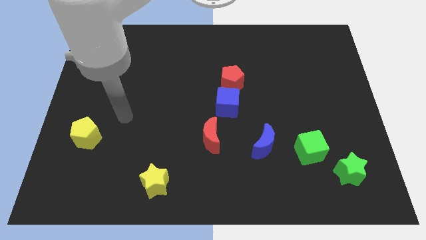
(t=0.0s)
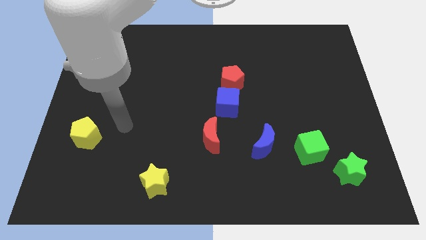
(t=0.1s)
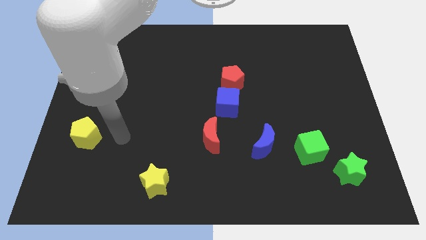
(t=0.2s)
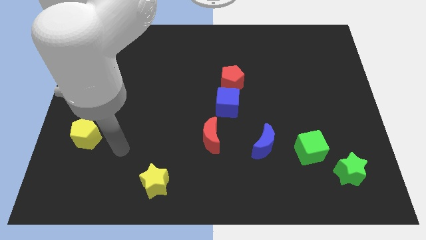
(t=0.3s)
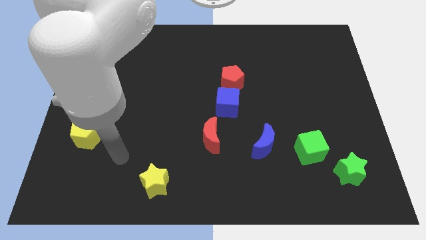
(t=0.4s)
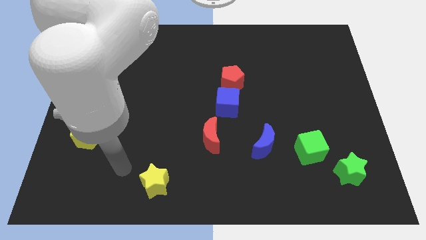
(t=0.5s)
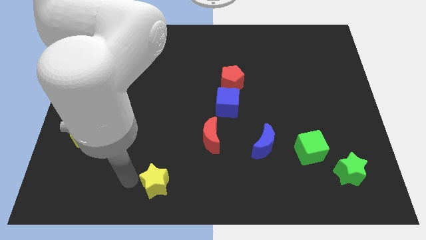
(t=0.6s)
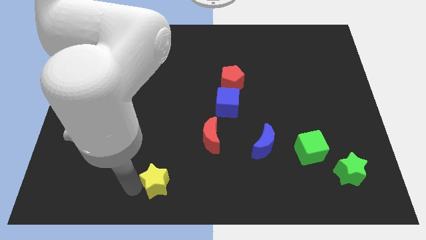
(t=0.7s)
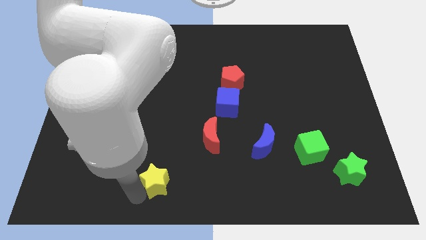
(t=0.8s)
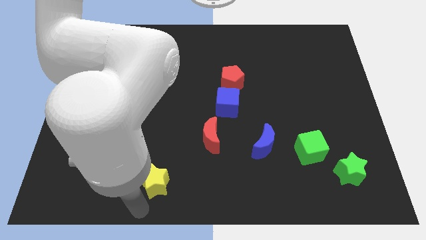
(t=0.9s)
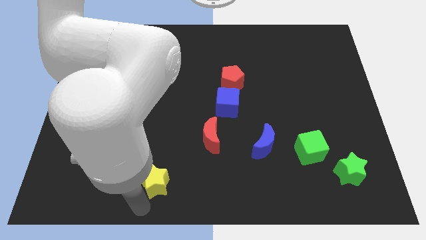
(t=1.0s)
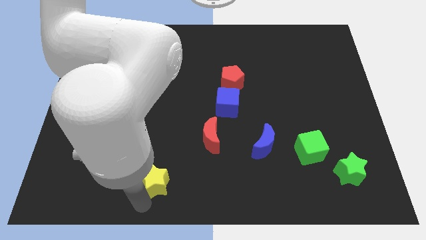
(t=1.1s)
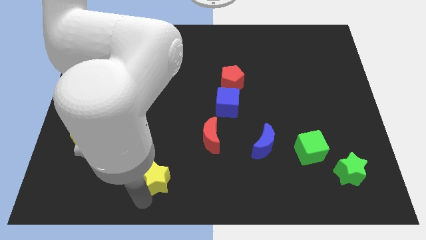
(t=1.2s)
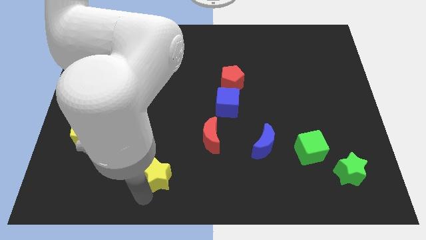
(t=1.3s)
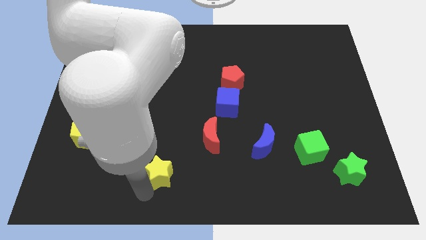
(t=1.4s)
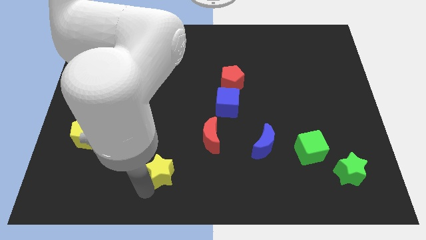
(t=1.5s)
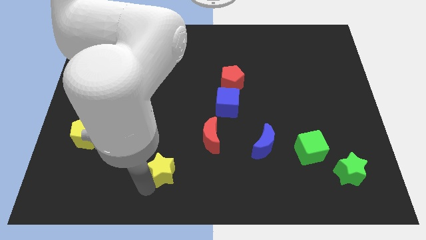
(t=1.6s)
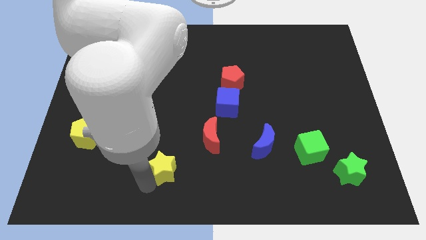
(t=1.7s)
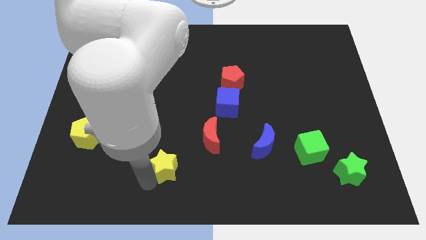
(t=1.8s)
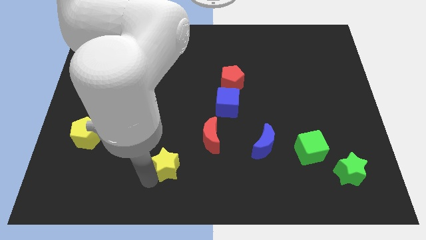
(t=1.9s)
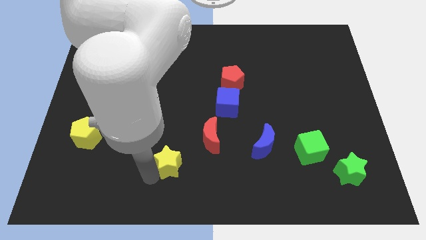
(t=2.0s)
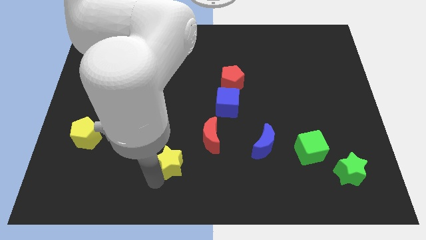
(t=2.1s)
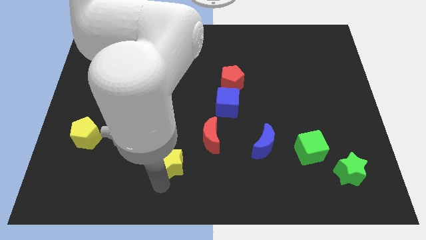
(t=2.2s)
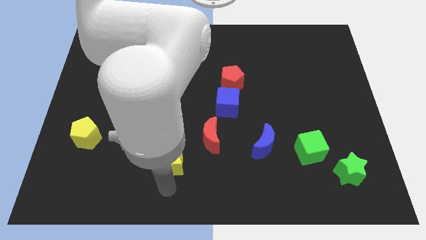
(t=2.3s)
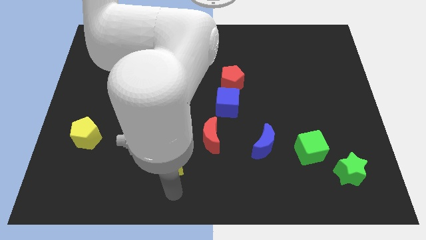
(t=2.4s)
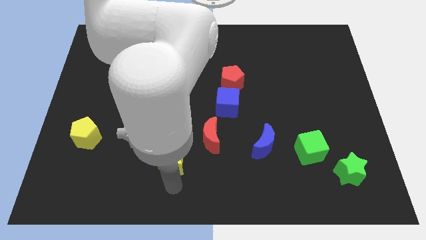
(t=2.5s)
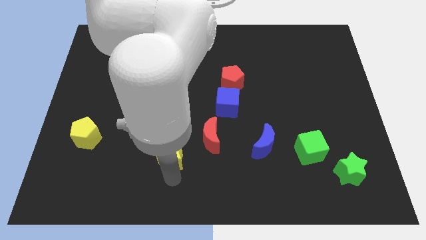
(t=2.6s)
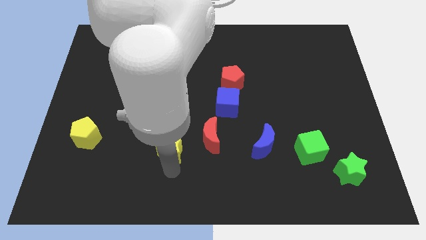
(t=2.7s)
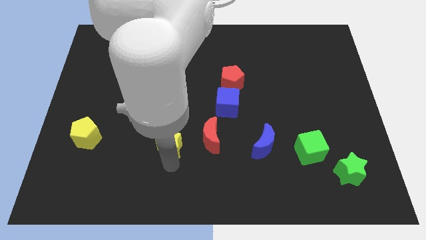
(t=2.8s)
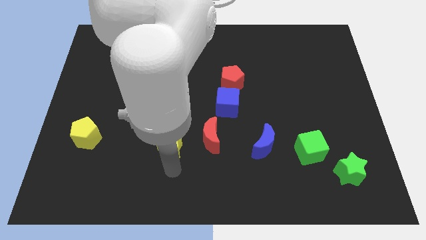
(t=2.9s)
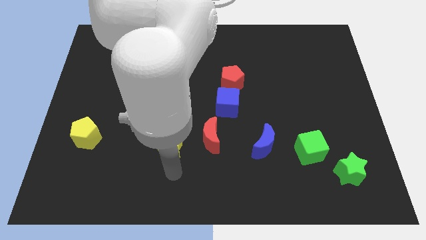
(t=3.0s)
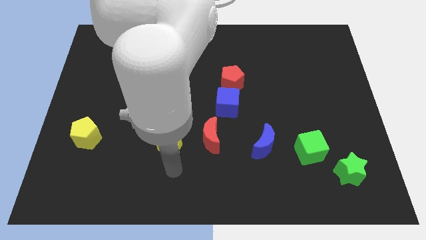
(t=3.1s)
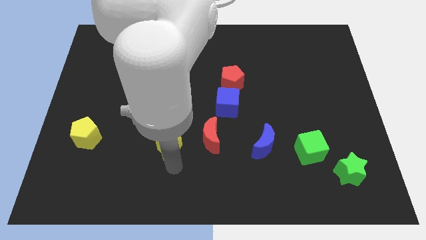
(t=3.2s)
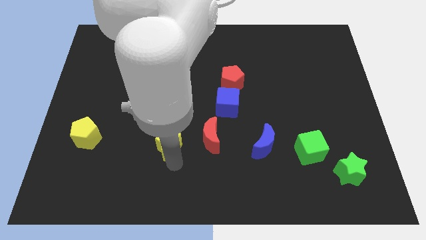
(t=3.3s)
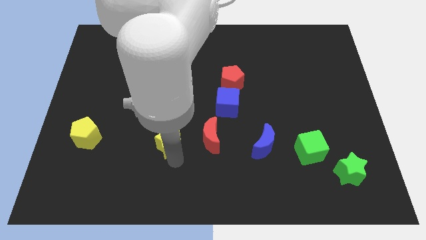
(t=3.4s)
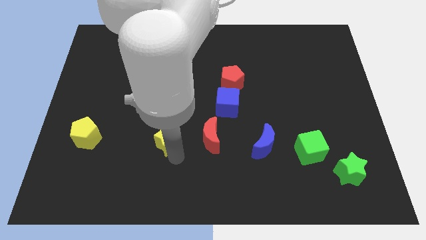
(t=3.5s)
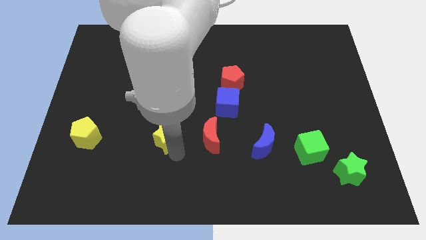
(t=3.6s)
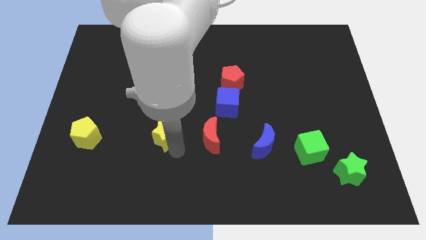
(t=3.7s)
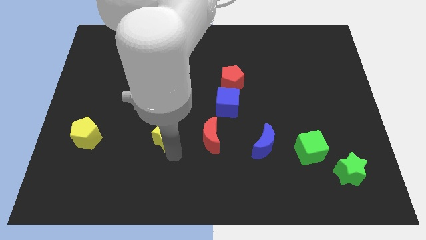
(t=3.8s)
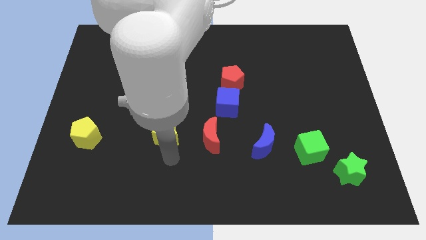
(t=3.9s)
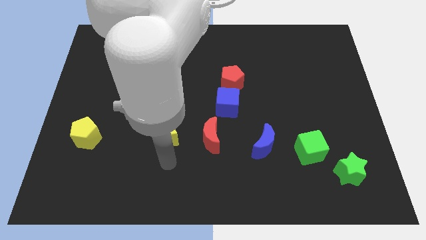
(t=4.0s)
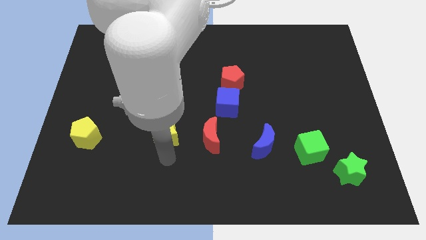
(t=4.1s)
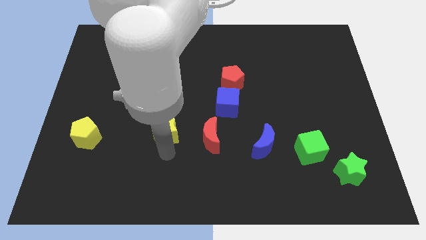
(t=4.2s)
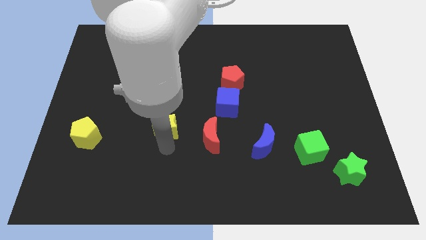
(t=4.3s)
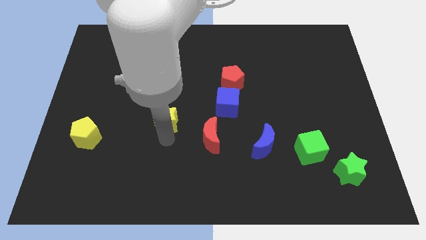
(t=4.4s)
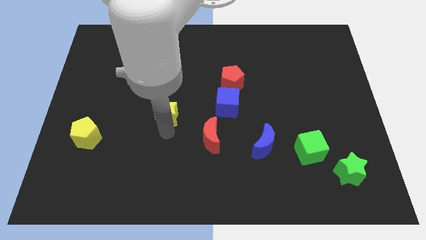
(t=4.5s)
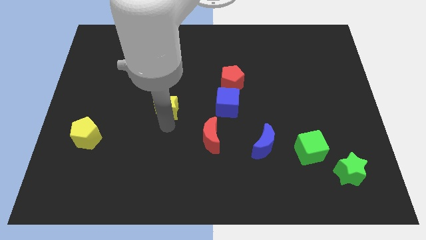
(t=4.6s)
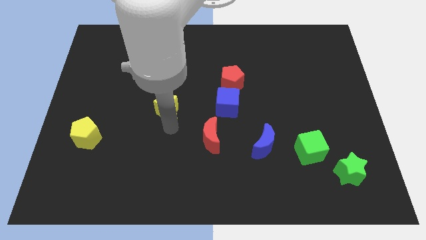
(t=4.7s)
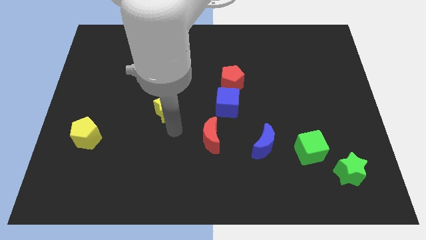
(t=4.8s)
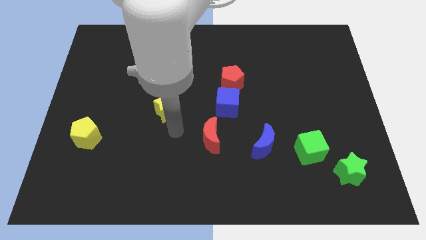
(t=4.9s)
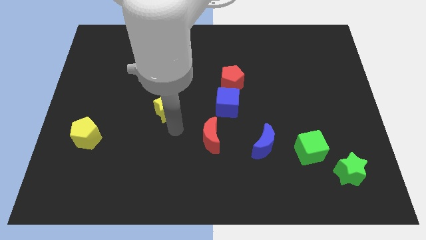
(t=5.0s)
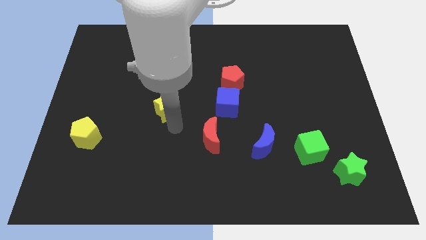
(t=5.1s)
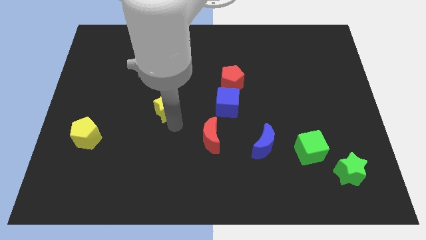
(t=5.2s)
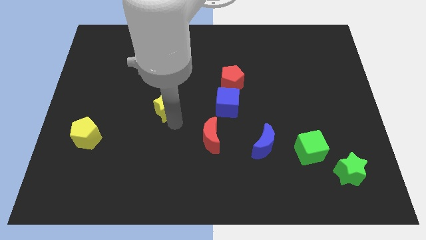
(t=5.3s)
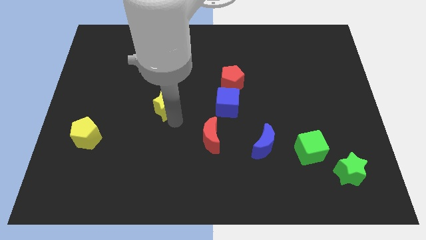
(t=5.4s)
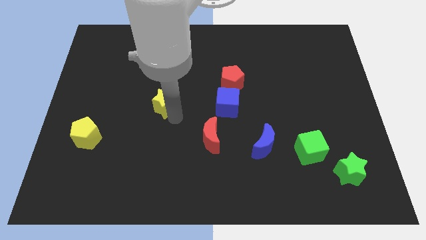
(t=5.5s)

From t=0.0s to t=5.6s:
push the yellow star up

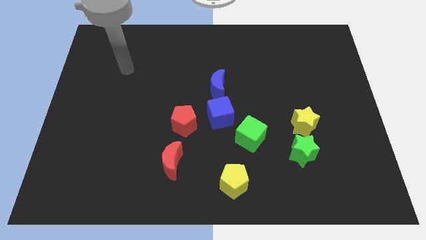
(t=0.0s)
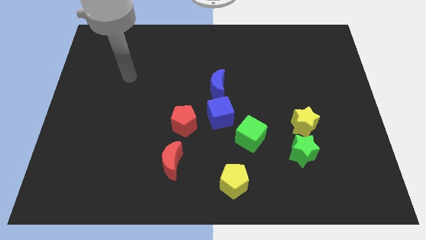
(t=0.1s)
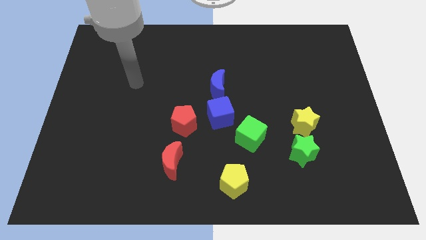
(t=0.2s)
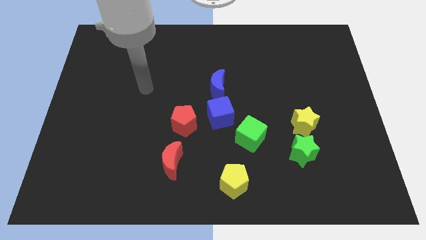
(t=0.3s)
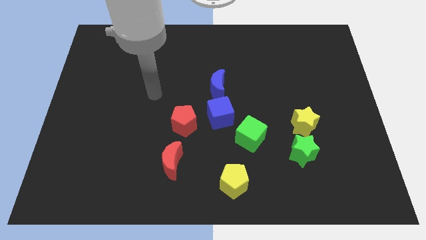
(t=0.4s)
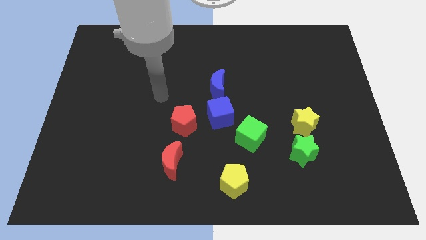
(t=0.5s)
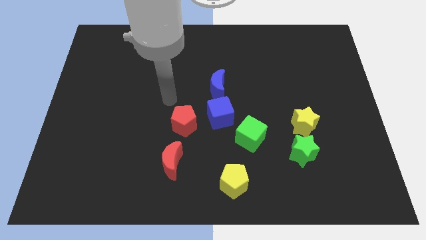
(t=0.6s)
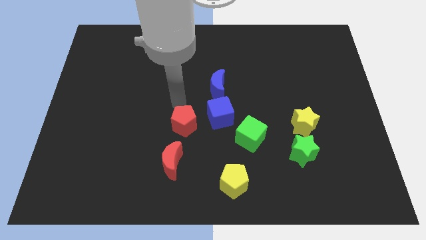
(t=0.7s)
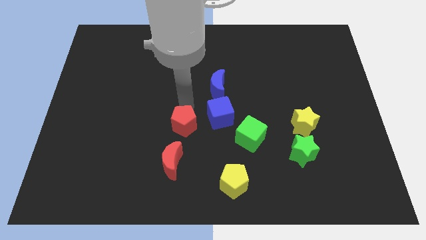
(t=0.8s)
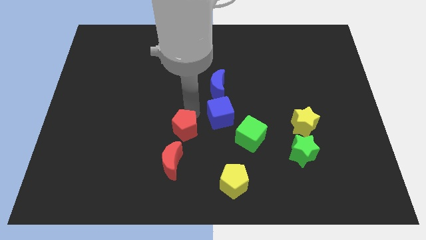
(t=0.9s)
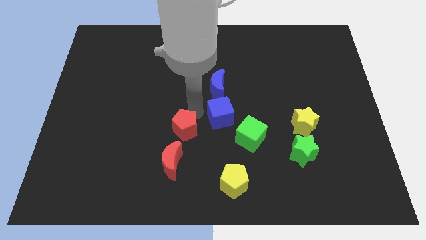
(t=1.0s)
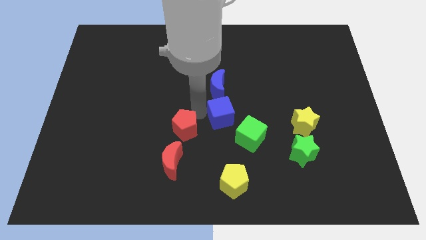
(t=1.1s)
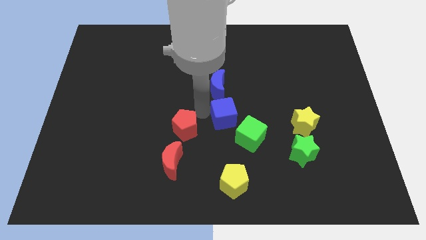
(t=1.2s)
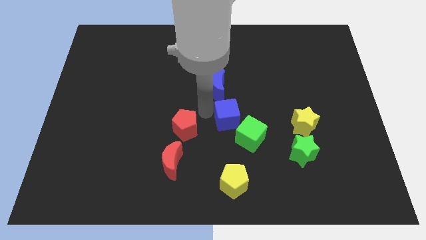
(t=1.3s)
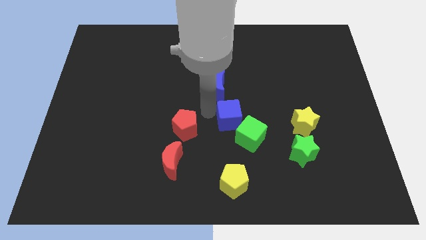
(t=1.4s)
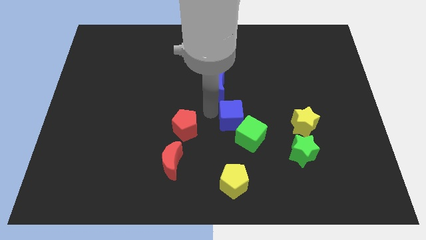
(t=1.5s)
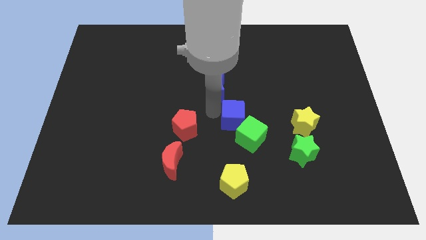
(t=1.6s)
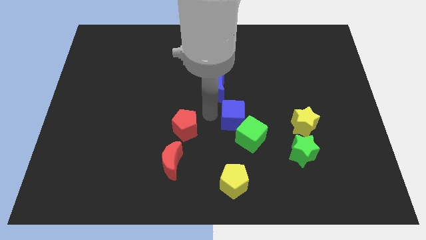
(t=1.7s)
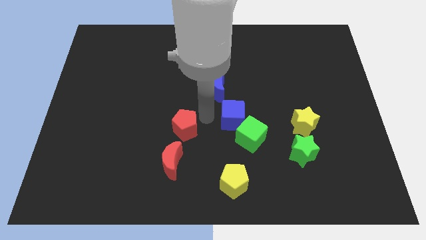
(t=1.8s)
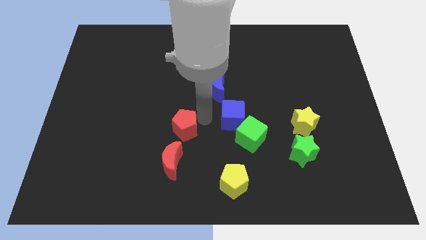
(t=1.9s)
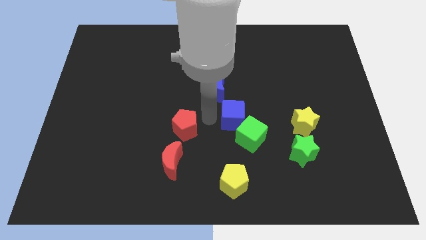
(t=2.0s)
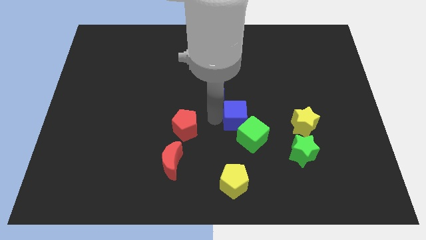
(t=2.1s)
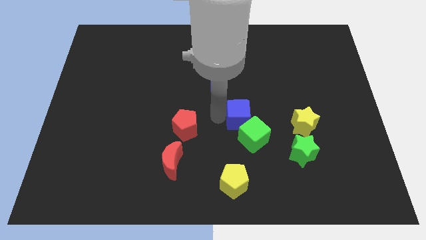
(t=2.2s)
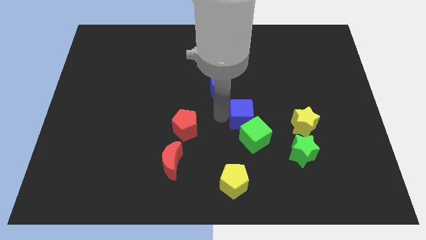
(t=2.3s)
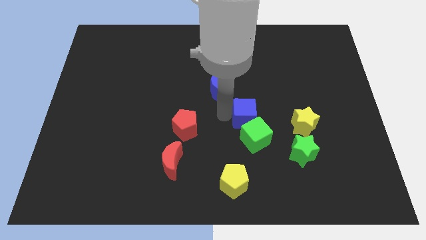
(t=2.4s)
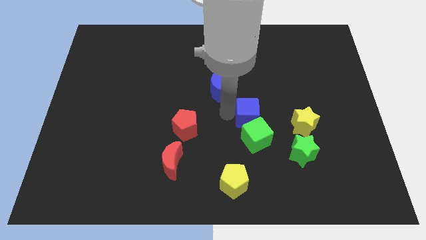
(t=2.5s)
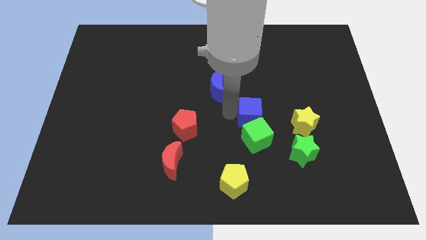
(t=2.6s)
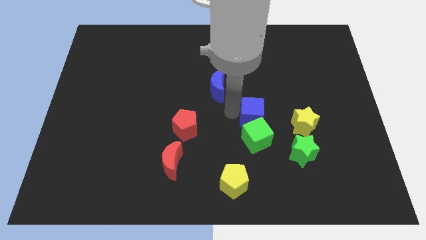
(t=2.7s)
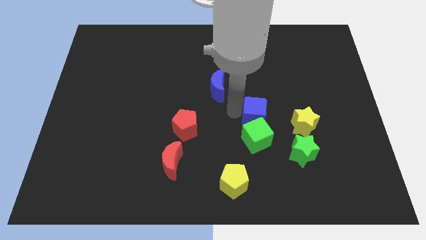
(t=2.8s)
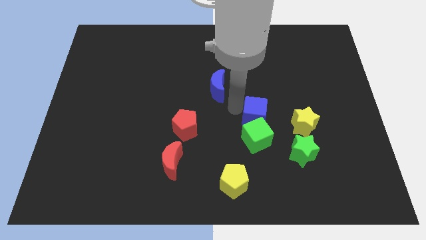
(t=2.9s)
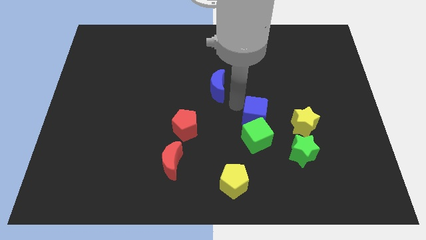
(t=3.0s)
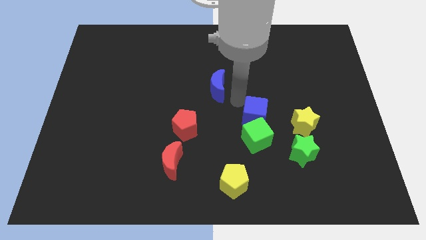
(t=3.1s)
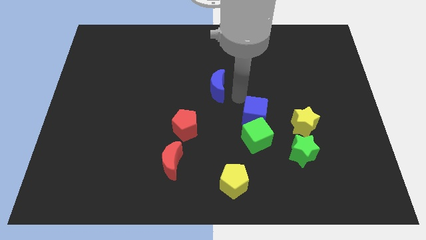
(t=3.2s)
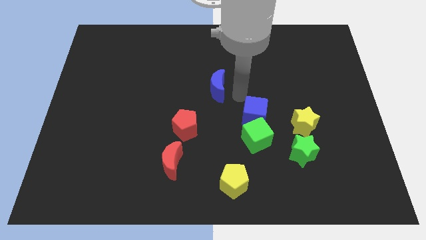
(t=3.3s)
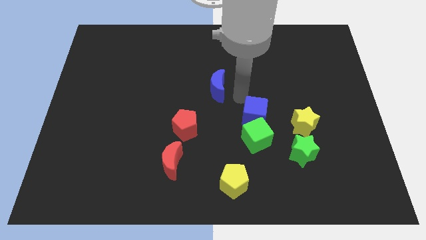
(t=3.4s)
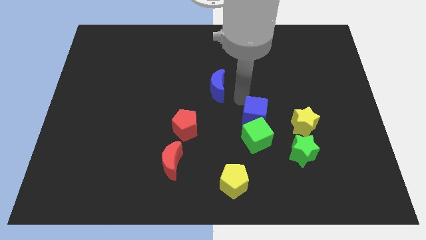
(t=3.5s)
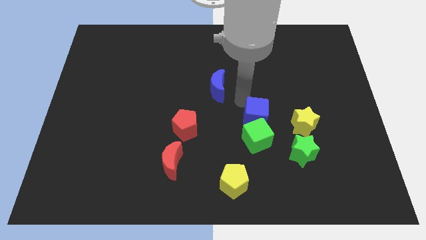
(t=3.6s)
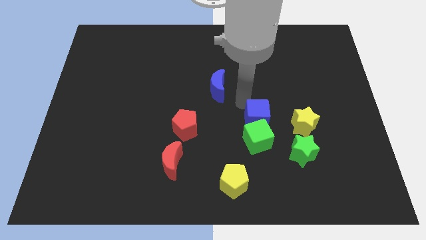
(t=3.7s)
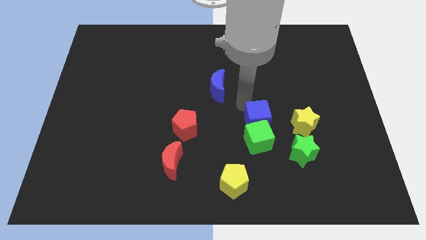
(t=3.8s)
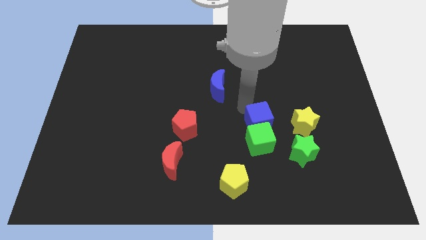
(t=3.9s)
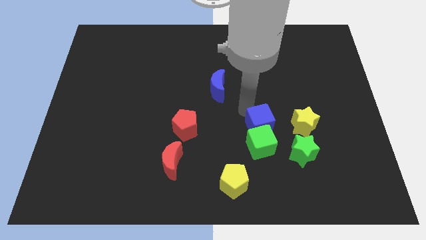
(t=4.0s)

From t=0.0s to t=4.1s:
slightly push the blue cube diagonally downwards and right
